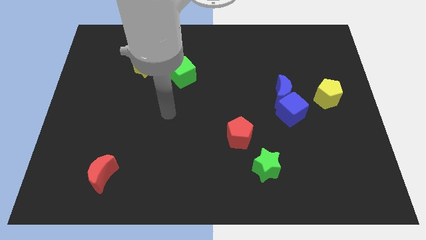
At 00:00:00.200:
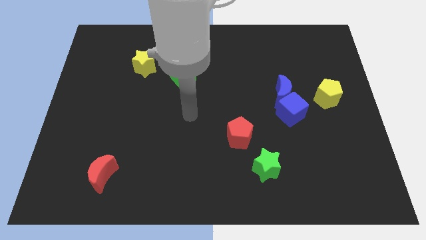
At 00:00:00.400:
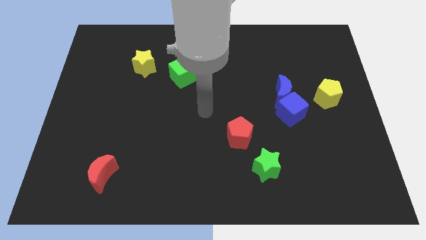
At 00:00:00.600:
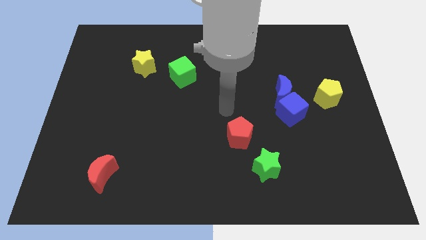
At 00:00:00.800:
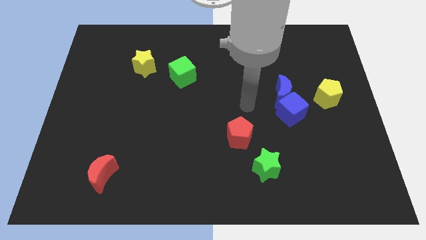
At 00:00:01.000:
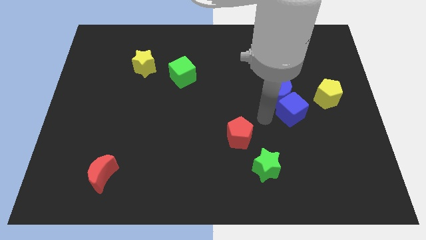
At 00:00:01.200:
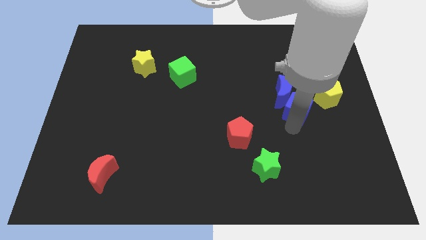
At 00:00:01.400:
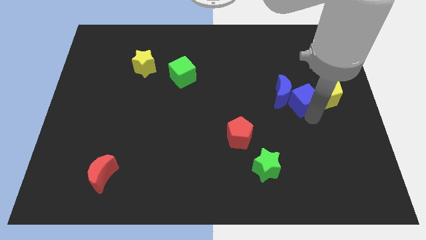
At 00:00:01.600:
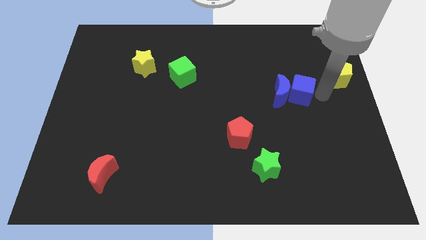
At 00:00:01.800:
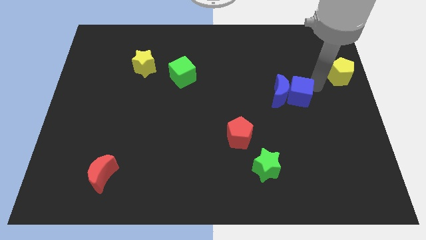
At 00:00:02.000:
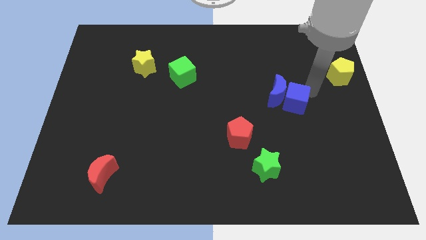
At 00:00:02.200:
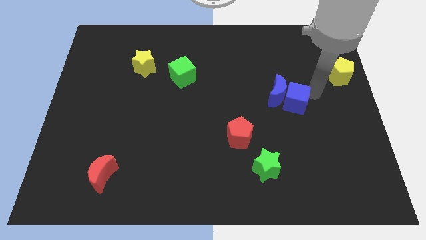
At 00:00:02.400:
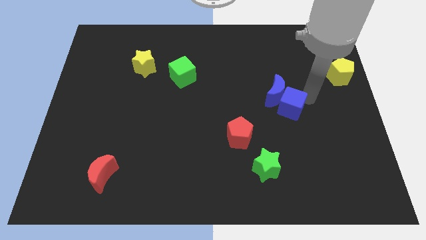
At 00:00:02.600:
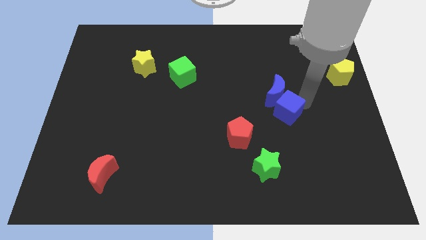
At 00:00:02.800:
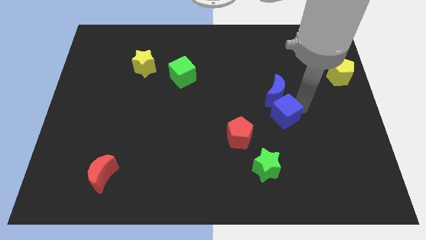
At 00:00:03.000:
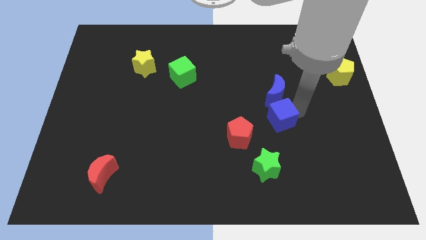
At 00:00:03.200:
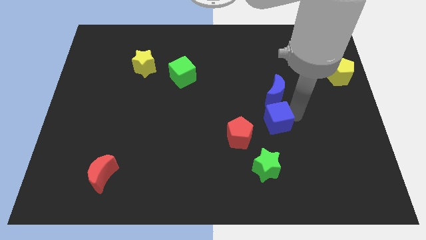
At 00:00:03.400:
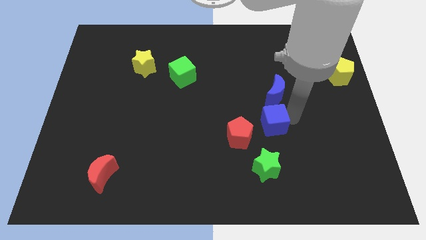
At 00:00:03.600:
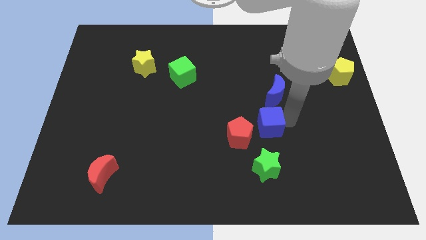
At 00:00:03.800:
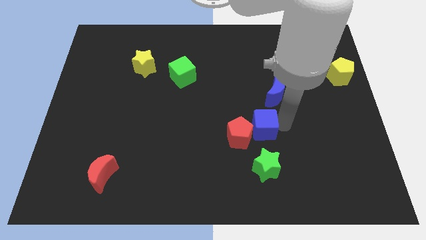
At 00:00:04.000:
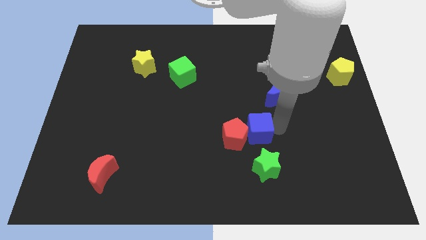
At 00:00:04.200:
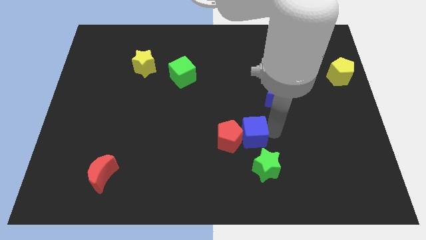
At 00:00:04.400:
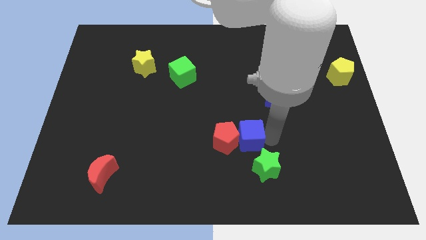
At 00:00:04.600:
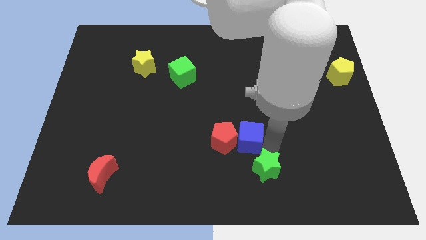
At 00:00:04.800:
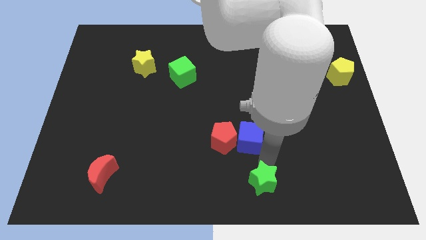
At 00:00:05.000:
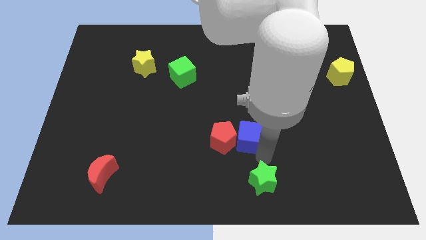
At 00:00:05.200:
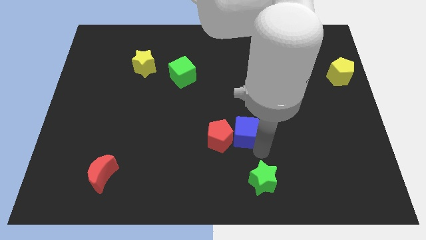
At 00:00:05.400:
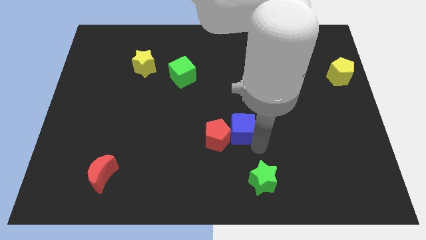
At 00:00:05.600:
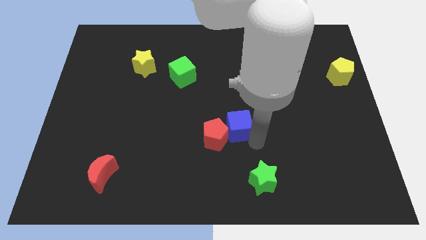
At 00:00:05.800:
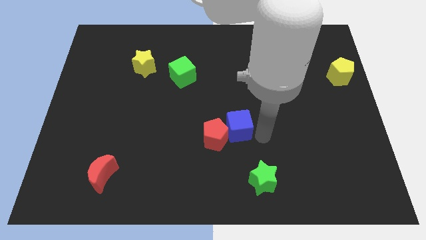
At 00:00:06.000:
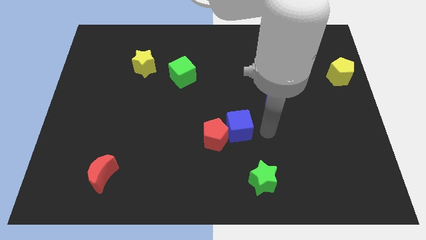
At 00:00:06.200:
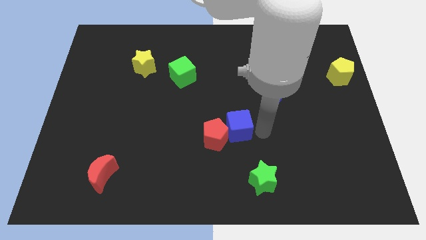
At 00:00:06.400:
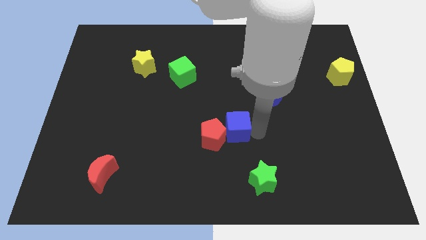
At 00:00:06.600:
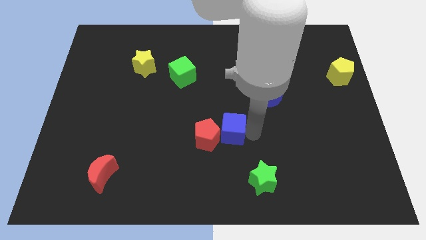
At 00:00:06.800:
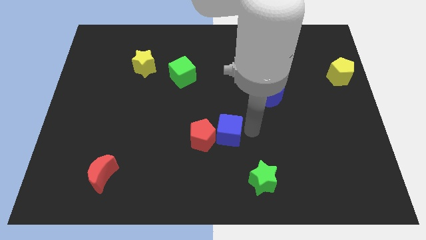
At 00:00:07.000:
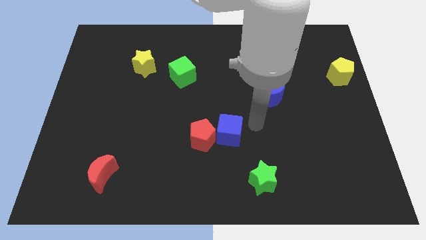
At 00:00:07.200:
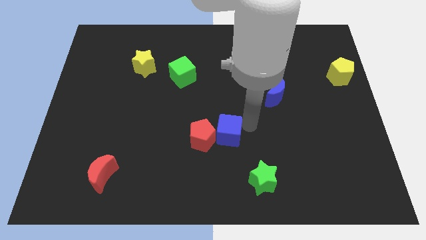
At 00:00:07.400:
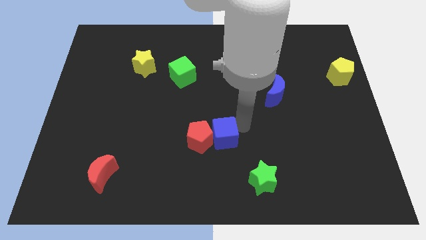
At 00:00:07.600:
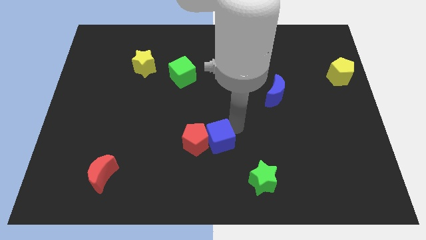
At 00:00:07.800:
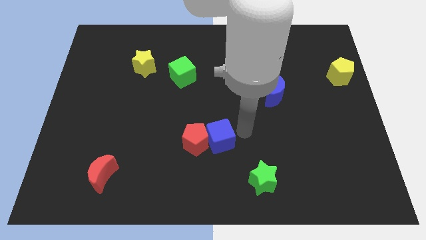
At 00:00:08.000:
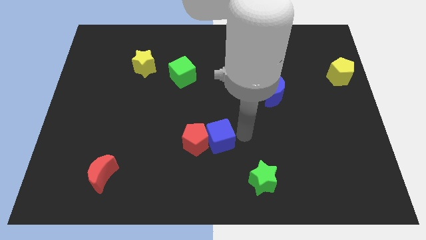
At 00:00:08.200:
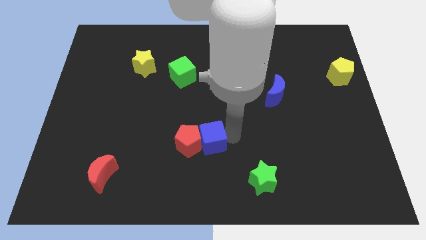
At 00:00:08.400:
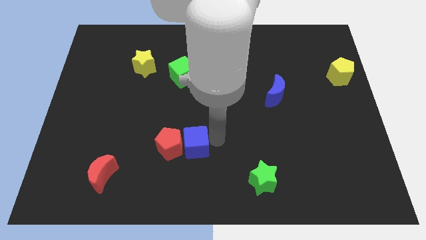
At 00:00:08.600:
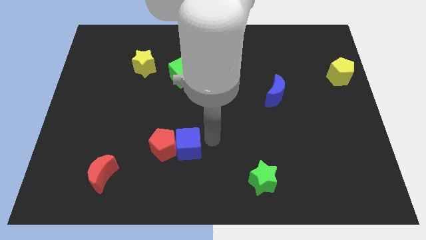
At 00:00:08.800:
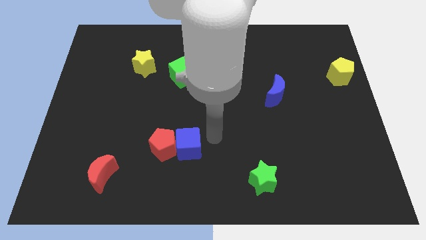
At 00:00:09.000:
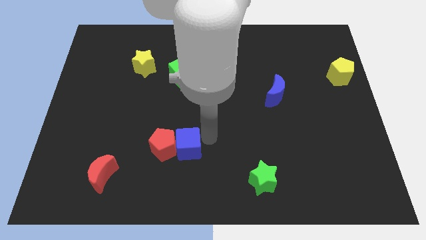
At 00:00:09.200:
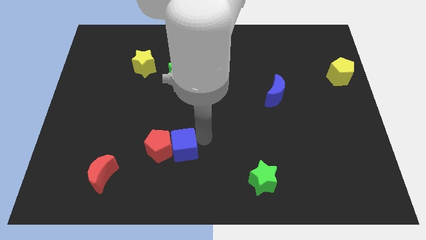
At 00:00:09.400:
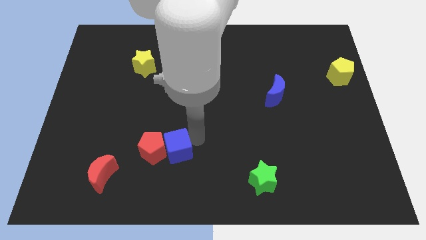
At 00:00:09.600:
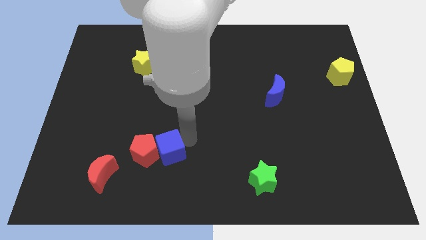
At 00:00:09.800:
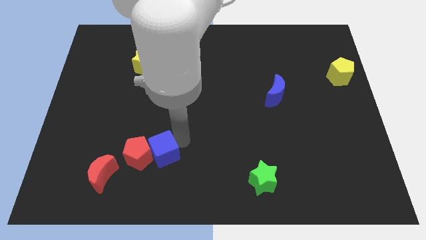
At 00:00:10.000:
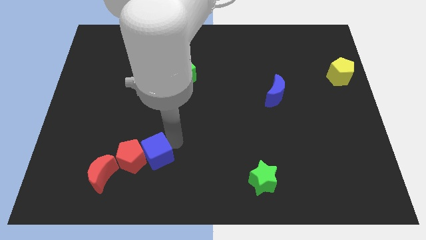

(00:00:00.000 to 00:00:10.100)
slide the blue cube to the right of the red moon

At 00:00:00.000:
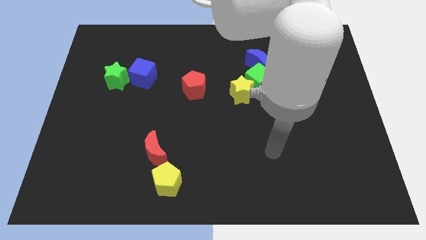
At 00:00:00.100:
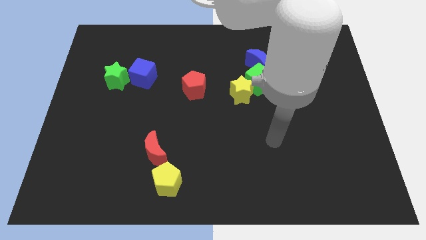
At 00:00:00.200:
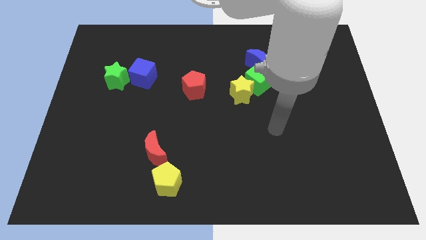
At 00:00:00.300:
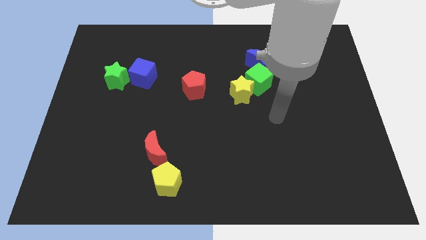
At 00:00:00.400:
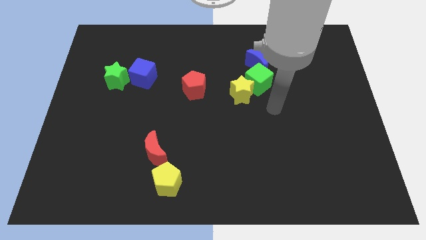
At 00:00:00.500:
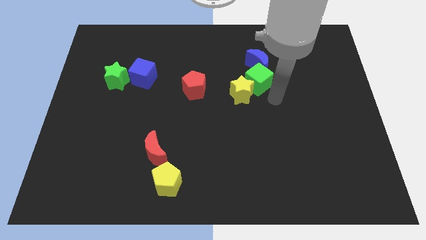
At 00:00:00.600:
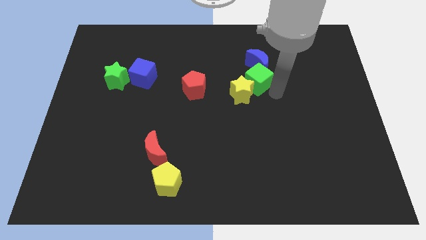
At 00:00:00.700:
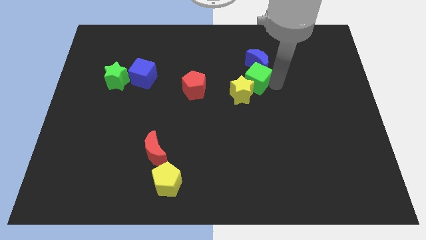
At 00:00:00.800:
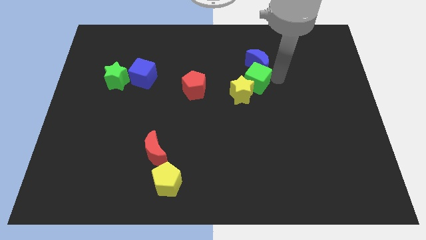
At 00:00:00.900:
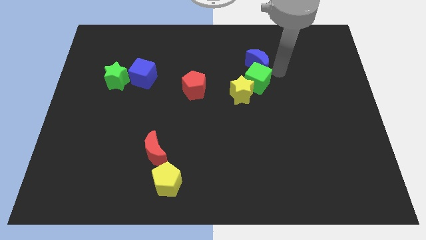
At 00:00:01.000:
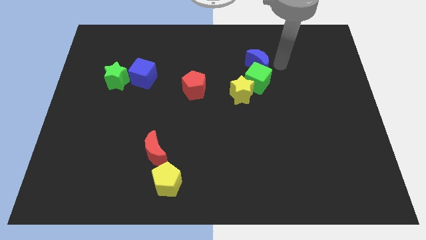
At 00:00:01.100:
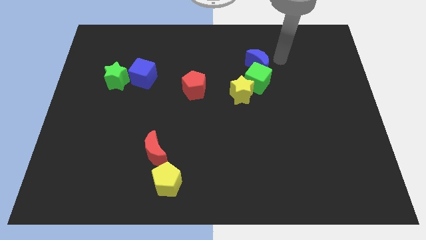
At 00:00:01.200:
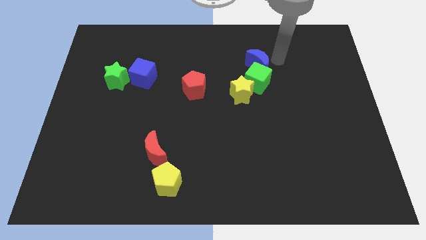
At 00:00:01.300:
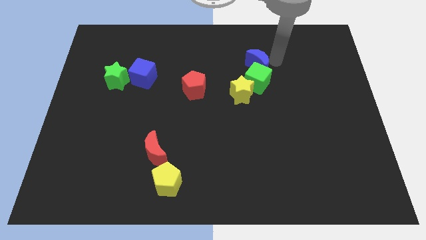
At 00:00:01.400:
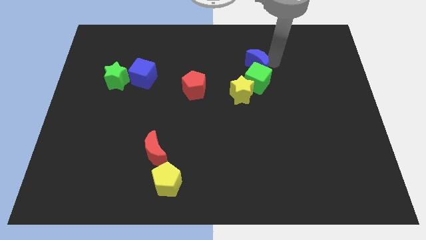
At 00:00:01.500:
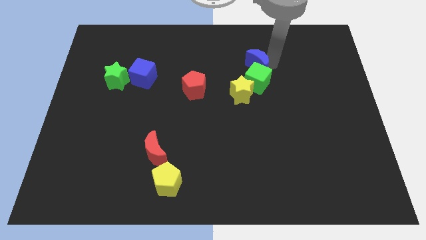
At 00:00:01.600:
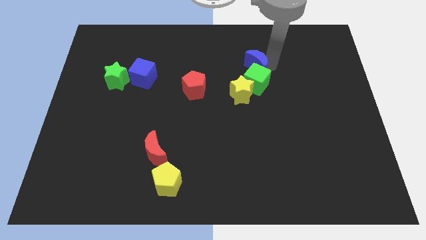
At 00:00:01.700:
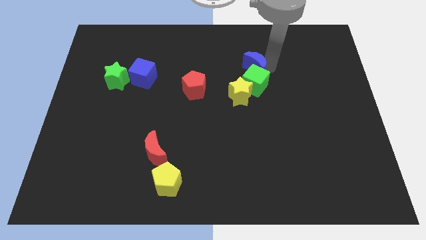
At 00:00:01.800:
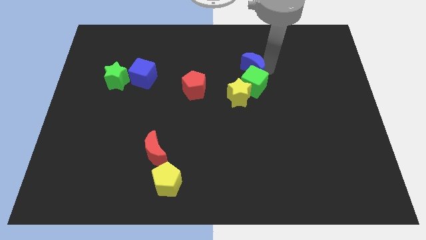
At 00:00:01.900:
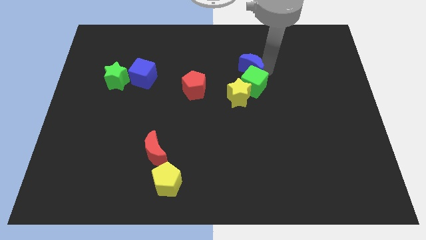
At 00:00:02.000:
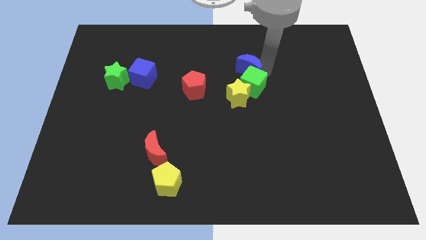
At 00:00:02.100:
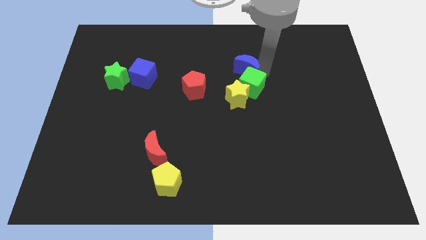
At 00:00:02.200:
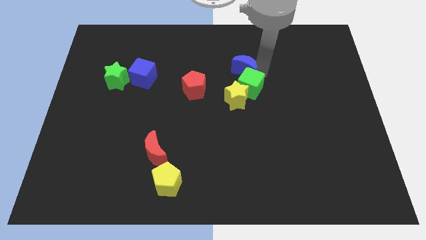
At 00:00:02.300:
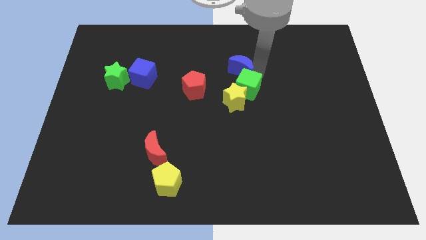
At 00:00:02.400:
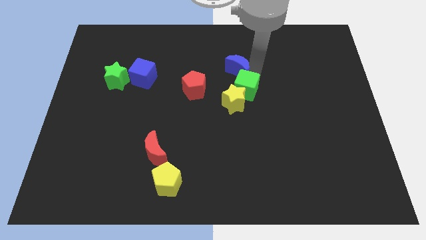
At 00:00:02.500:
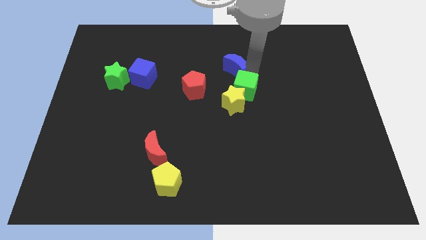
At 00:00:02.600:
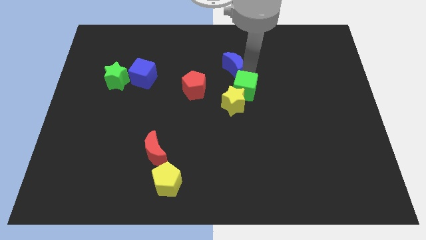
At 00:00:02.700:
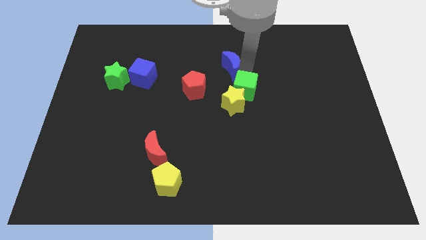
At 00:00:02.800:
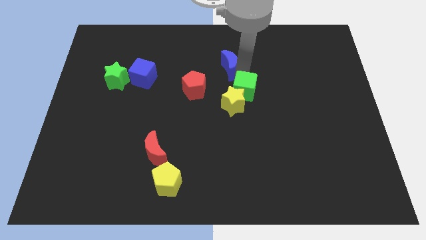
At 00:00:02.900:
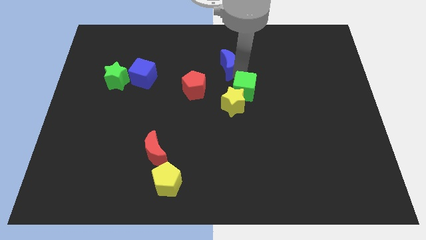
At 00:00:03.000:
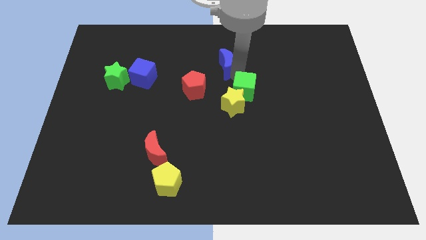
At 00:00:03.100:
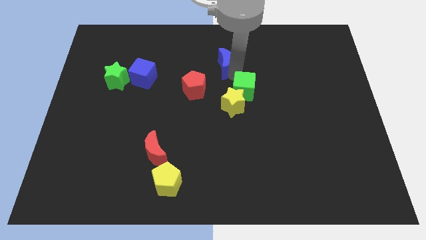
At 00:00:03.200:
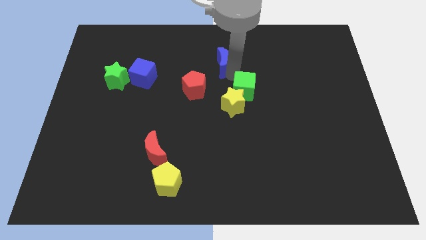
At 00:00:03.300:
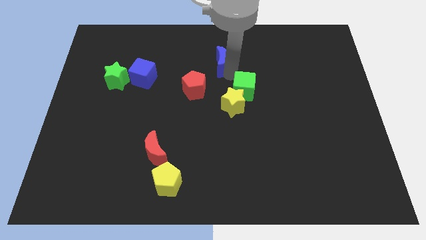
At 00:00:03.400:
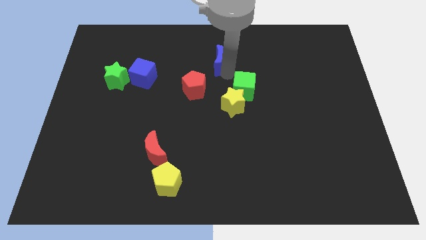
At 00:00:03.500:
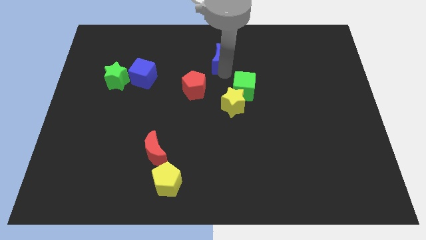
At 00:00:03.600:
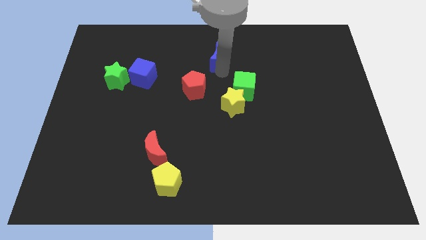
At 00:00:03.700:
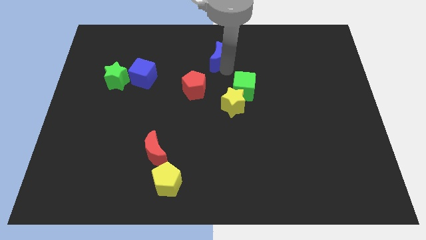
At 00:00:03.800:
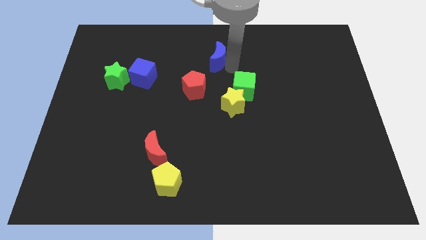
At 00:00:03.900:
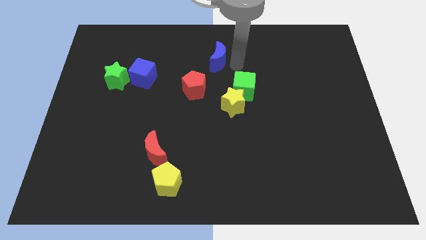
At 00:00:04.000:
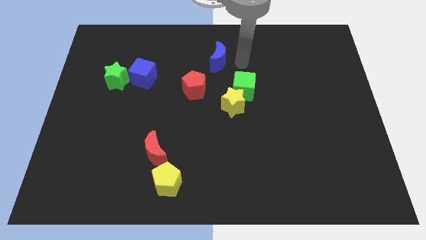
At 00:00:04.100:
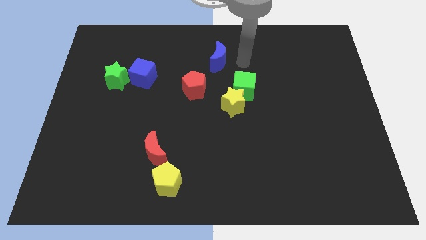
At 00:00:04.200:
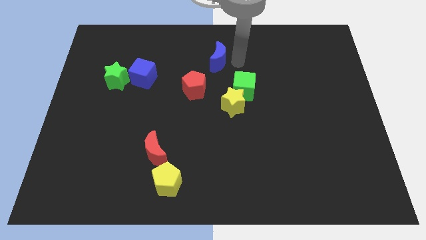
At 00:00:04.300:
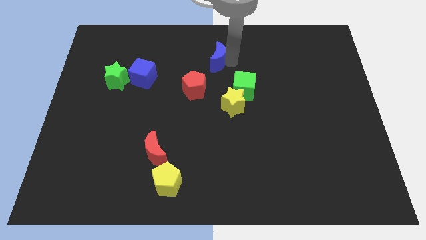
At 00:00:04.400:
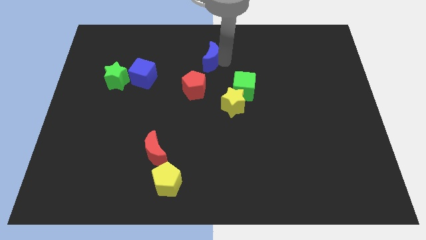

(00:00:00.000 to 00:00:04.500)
put the blue moon to the top side of the red pentagon
